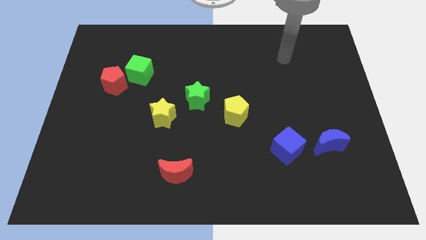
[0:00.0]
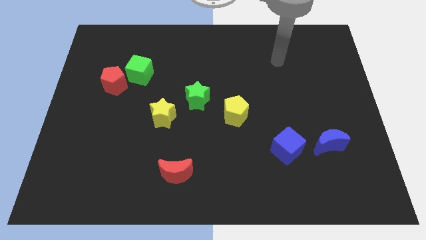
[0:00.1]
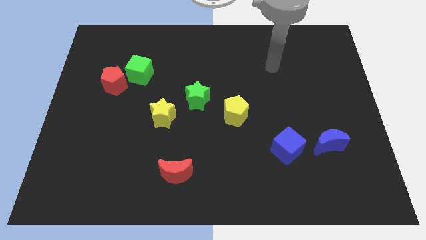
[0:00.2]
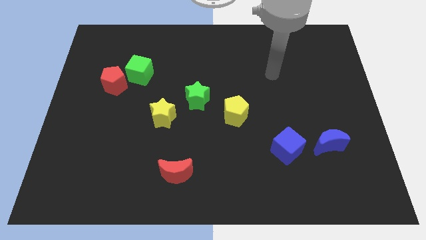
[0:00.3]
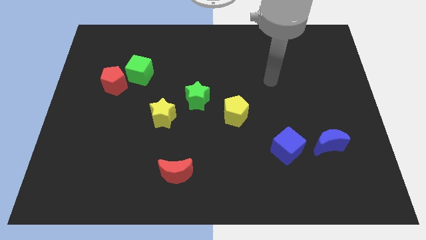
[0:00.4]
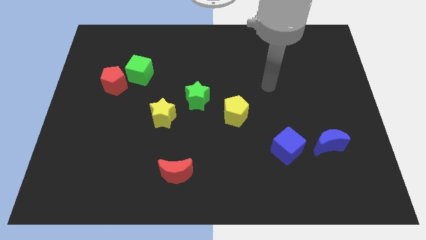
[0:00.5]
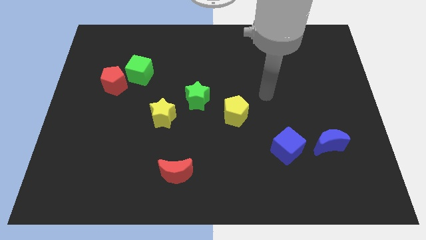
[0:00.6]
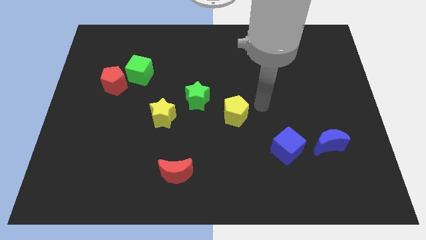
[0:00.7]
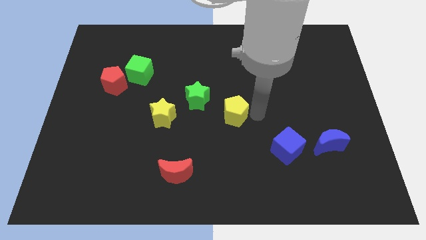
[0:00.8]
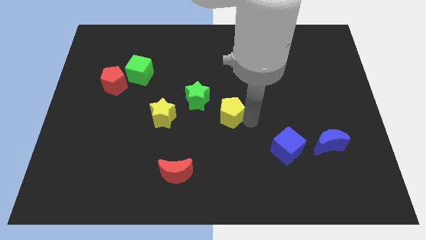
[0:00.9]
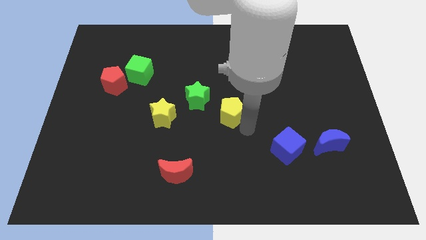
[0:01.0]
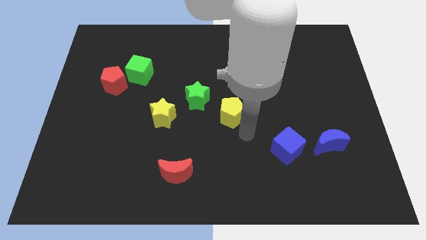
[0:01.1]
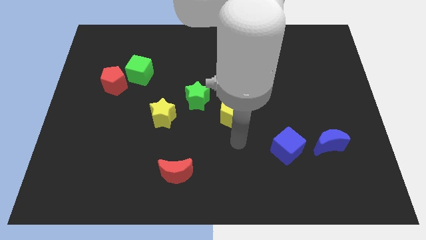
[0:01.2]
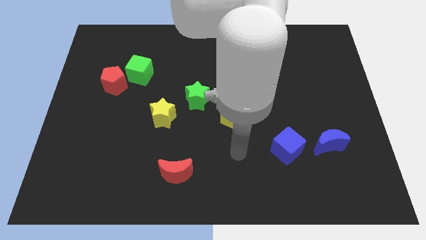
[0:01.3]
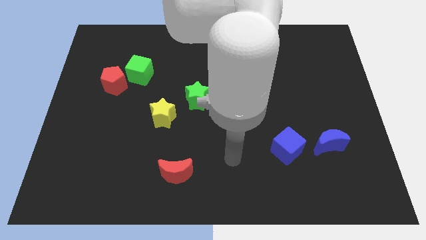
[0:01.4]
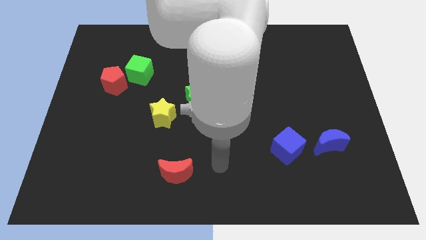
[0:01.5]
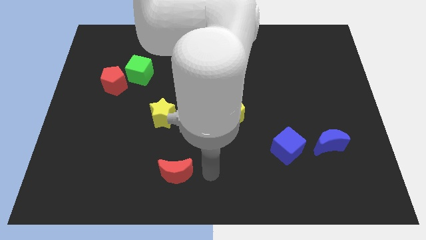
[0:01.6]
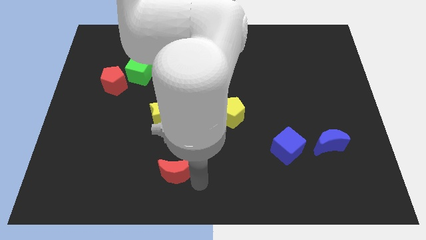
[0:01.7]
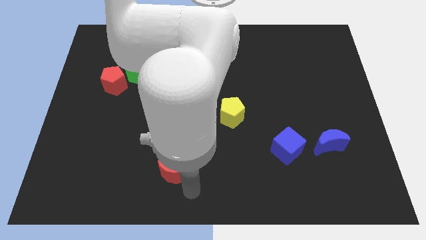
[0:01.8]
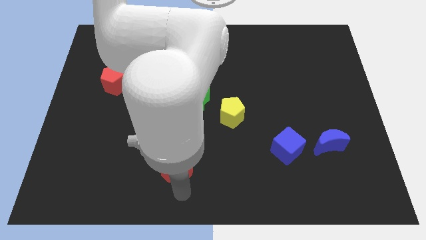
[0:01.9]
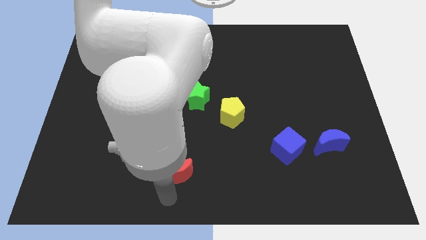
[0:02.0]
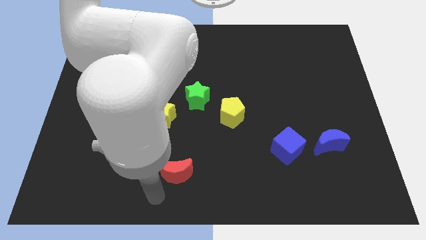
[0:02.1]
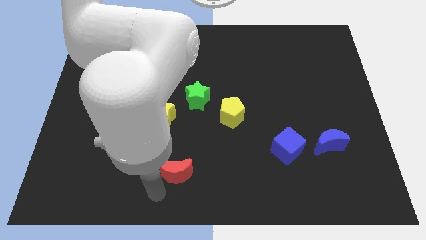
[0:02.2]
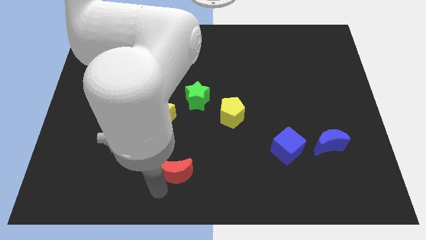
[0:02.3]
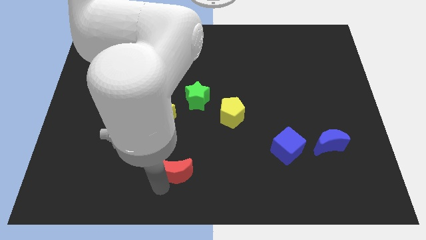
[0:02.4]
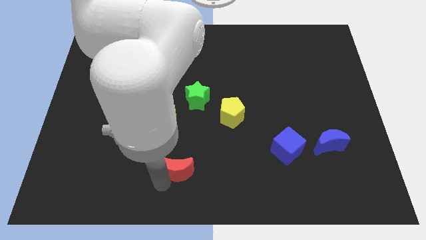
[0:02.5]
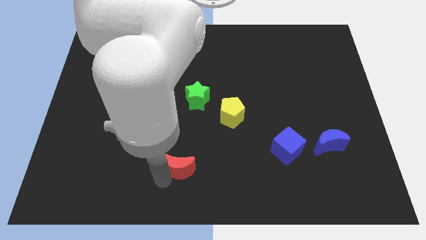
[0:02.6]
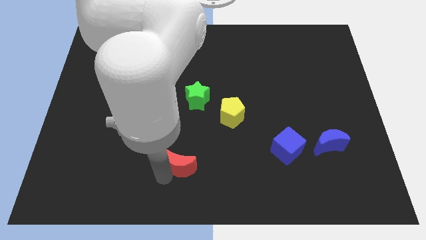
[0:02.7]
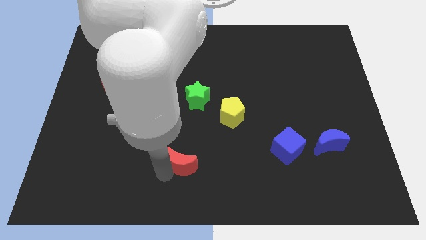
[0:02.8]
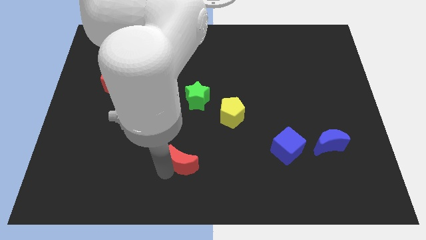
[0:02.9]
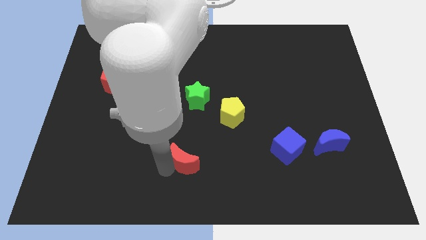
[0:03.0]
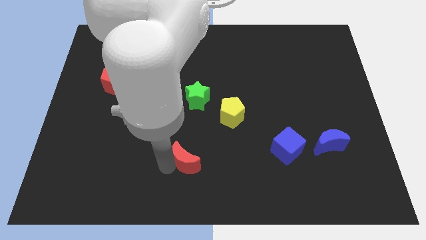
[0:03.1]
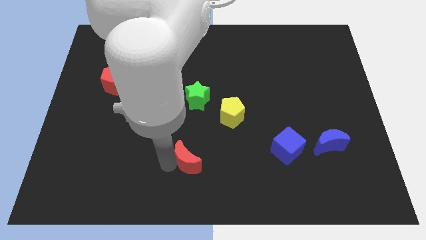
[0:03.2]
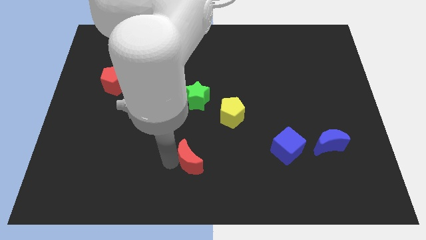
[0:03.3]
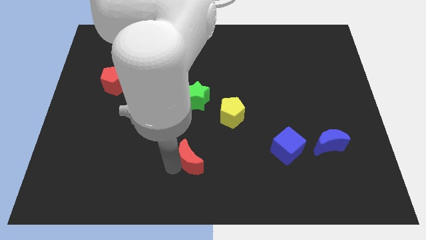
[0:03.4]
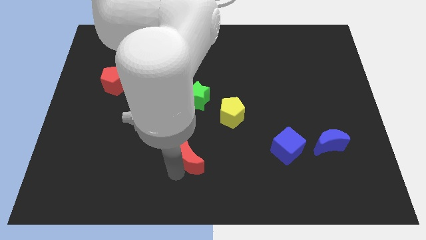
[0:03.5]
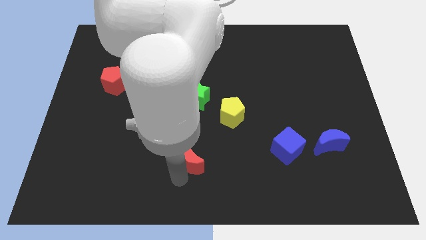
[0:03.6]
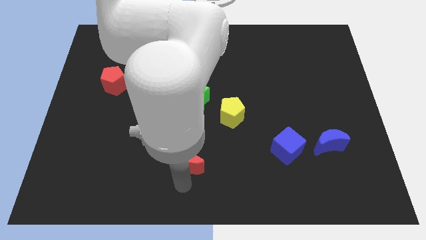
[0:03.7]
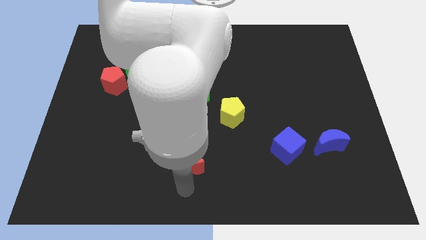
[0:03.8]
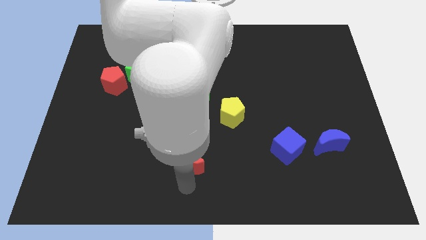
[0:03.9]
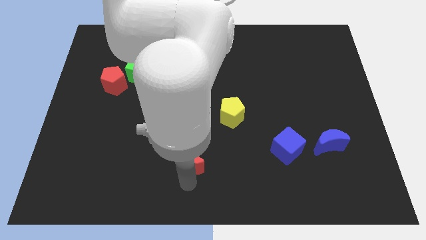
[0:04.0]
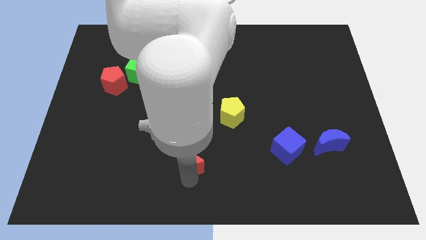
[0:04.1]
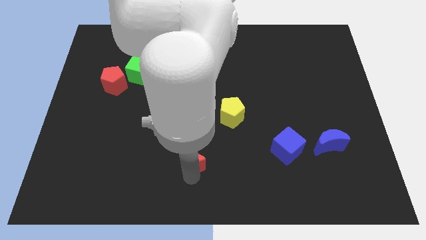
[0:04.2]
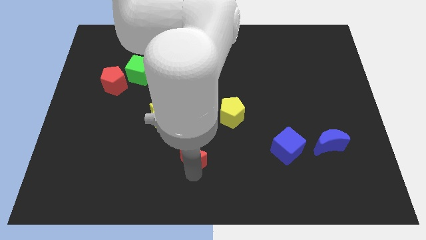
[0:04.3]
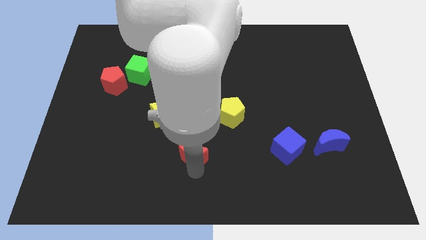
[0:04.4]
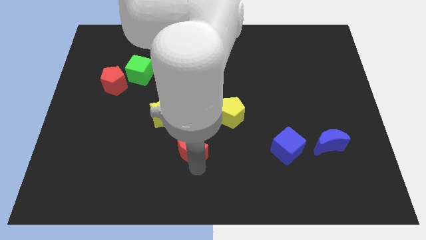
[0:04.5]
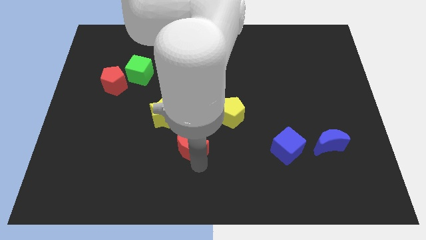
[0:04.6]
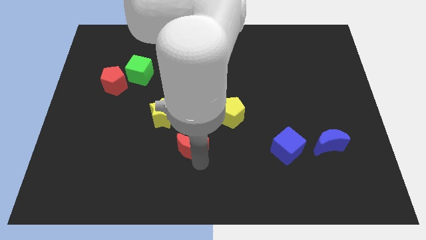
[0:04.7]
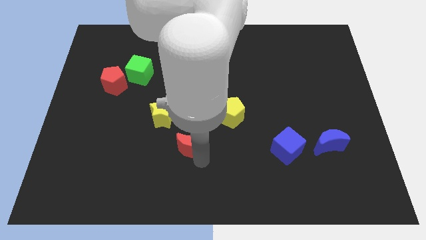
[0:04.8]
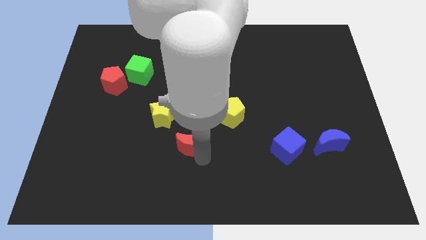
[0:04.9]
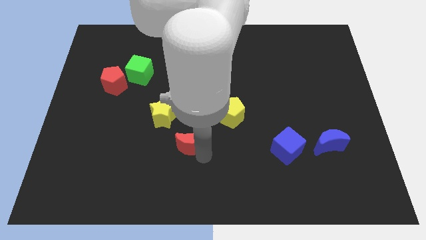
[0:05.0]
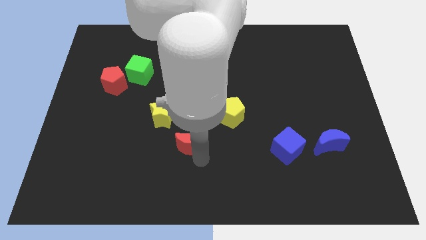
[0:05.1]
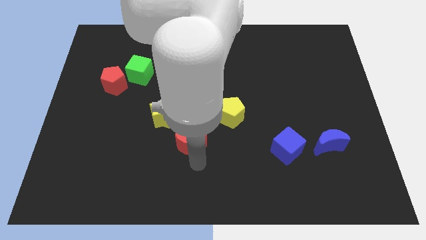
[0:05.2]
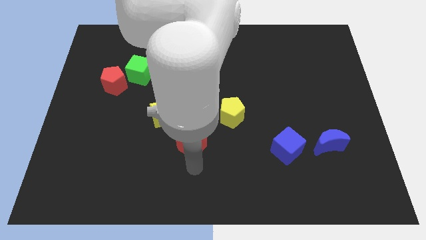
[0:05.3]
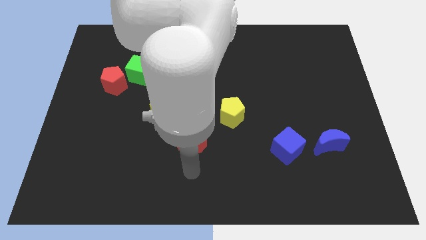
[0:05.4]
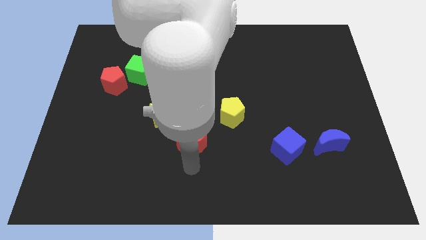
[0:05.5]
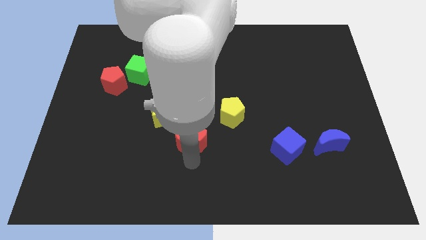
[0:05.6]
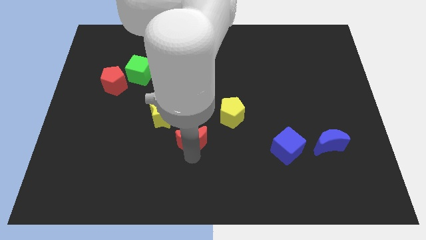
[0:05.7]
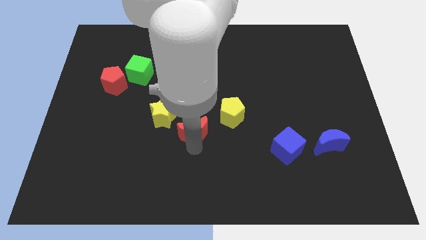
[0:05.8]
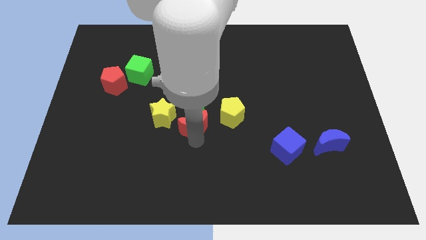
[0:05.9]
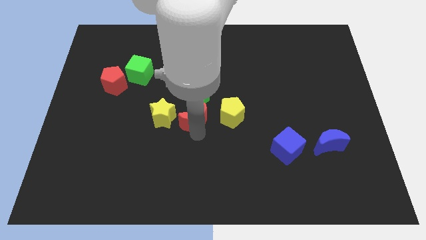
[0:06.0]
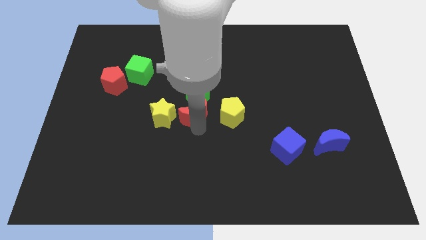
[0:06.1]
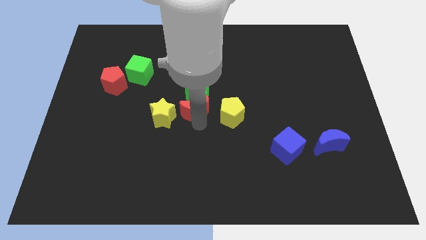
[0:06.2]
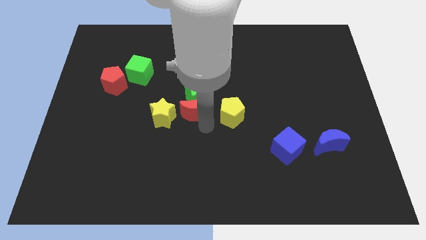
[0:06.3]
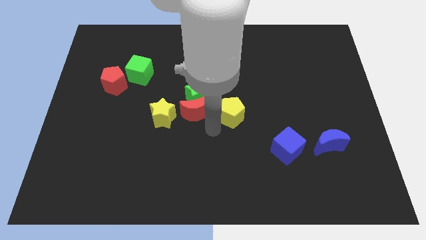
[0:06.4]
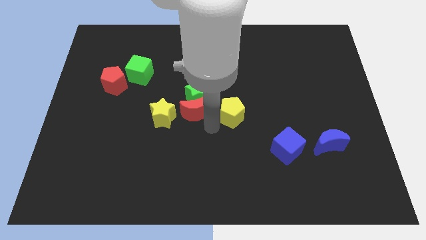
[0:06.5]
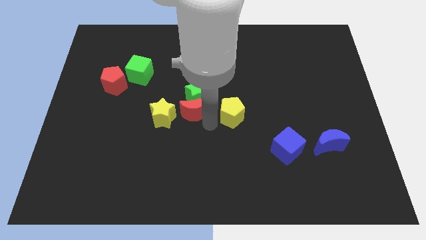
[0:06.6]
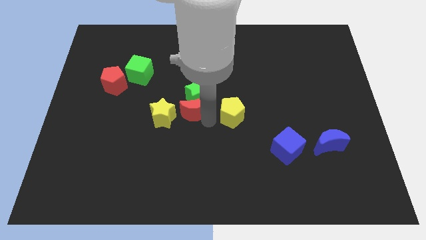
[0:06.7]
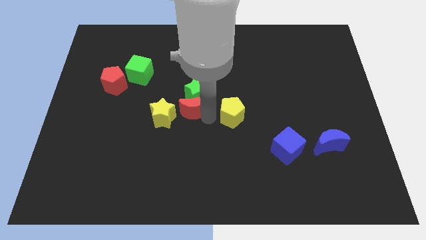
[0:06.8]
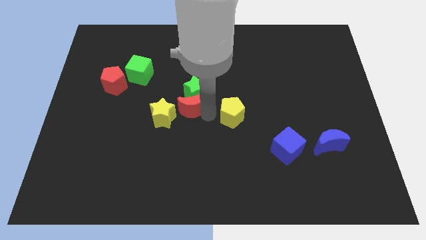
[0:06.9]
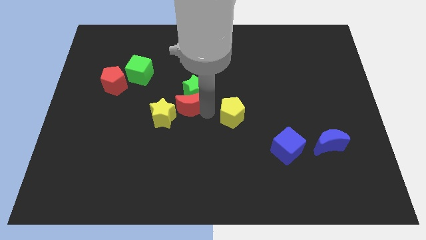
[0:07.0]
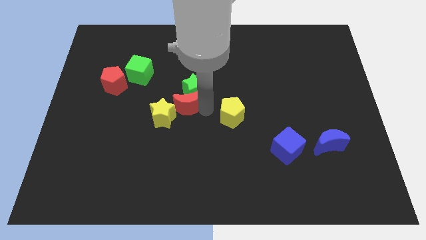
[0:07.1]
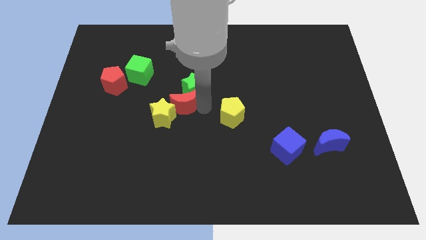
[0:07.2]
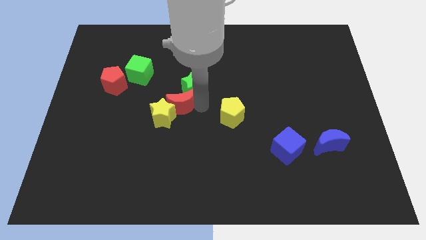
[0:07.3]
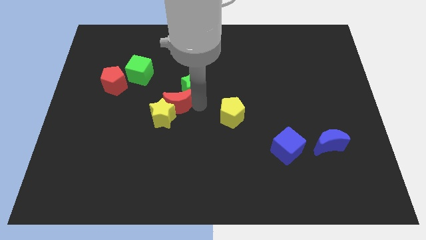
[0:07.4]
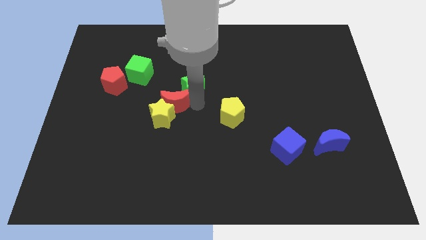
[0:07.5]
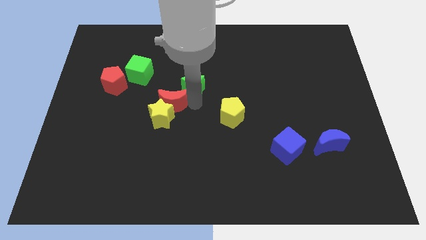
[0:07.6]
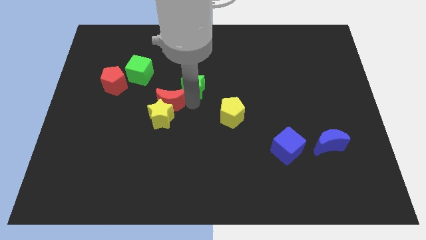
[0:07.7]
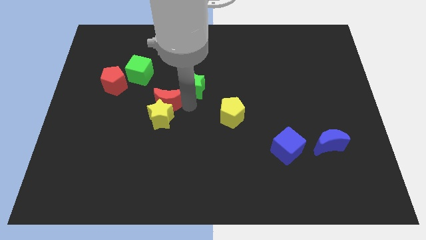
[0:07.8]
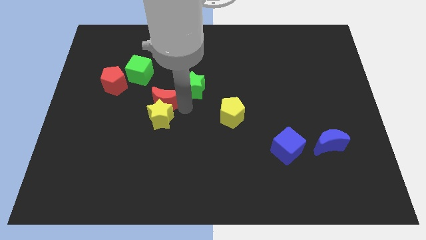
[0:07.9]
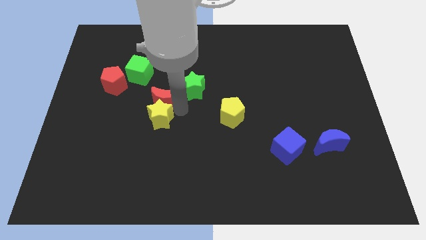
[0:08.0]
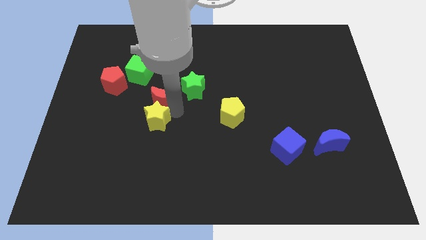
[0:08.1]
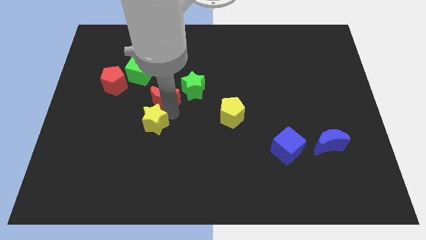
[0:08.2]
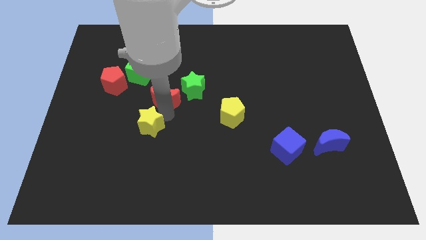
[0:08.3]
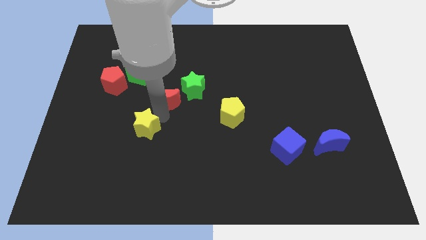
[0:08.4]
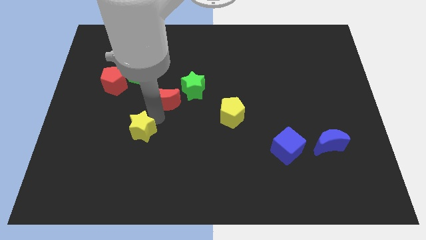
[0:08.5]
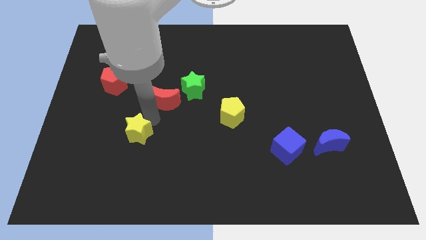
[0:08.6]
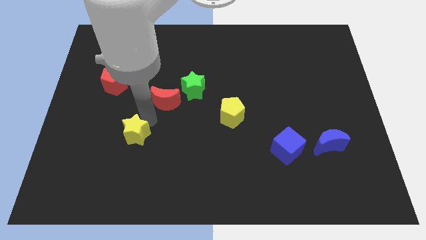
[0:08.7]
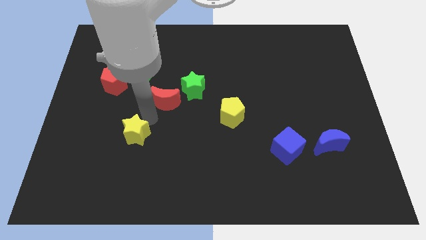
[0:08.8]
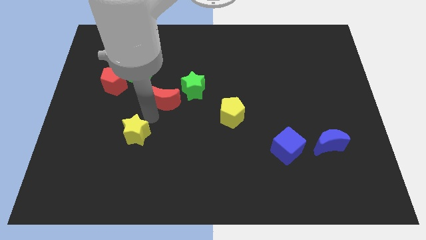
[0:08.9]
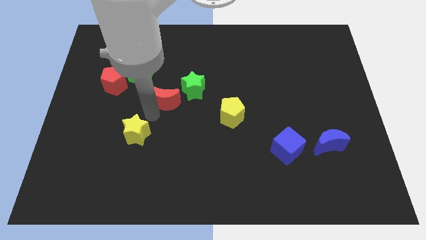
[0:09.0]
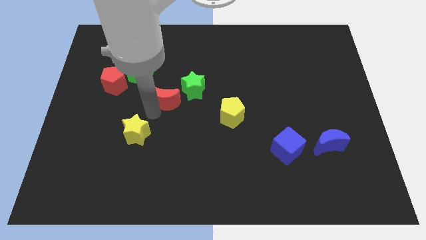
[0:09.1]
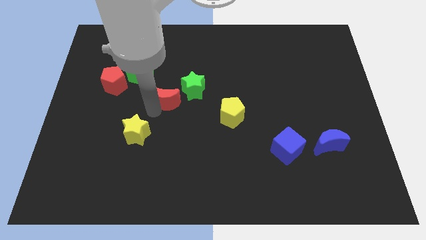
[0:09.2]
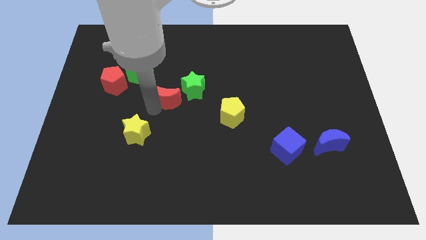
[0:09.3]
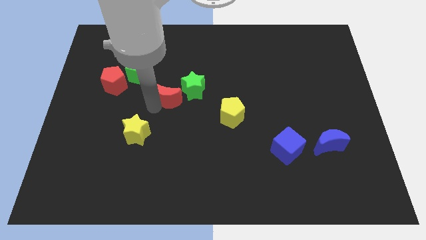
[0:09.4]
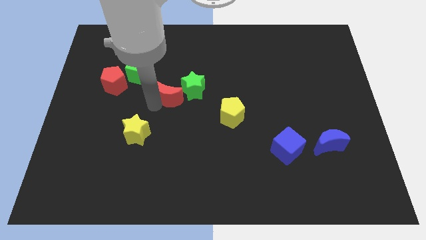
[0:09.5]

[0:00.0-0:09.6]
move the red moon up
